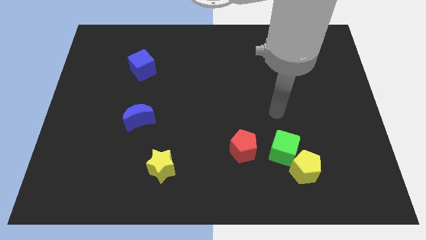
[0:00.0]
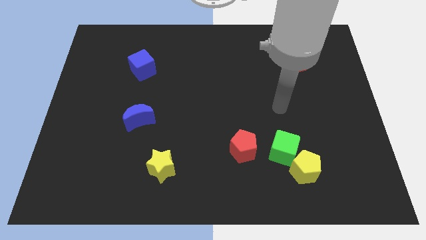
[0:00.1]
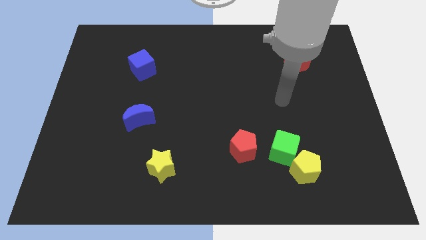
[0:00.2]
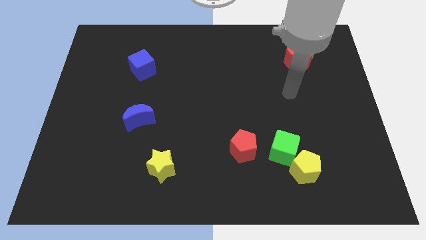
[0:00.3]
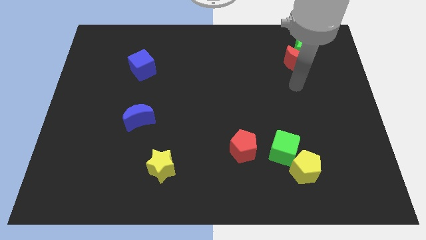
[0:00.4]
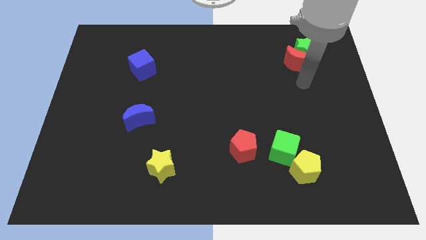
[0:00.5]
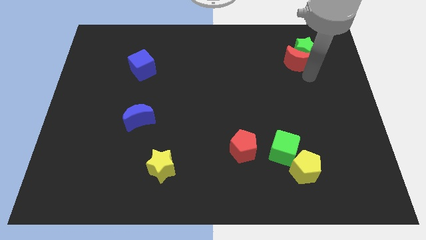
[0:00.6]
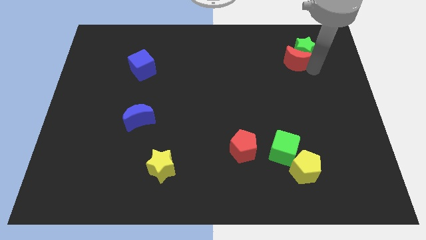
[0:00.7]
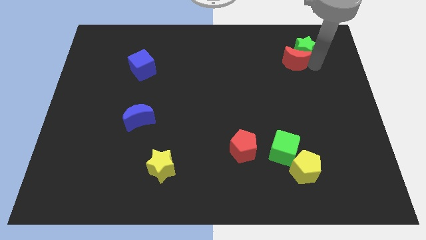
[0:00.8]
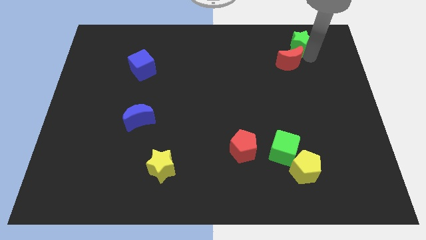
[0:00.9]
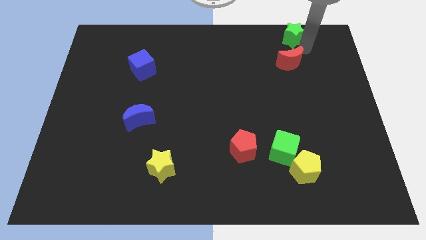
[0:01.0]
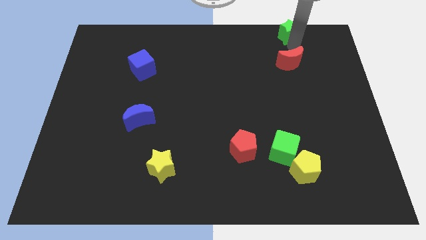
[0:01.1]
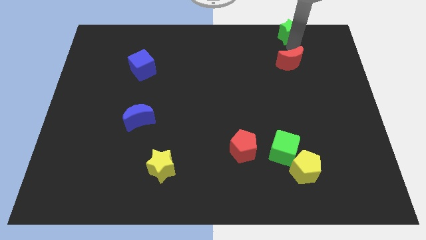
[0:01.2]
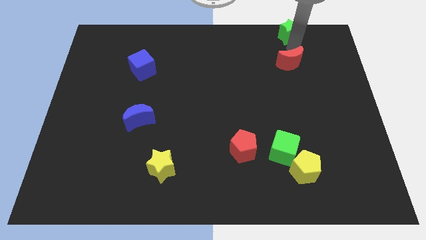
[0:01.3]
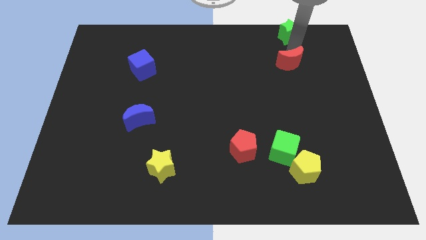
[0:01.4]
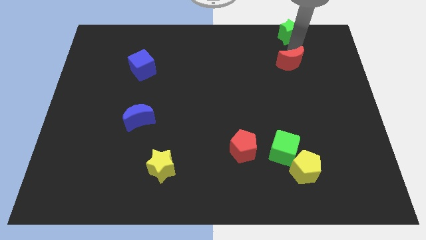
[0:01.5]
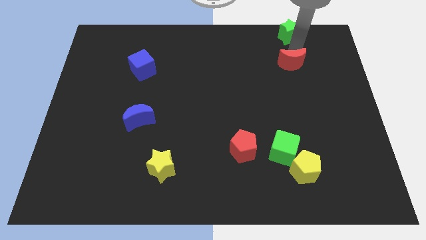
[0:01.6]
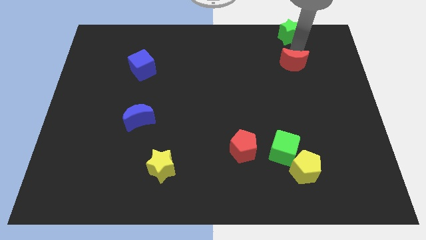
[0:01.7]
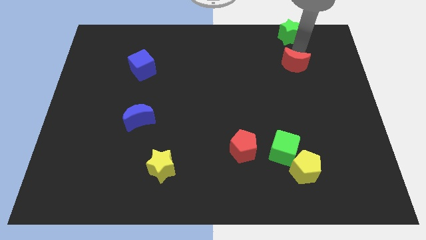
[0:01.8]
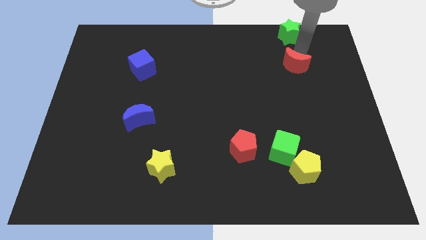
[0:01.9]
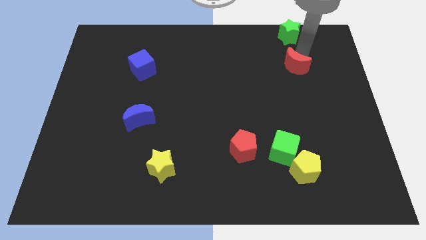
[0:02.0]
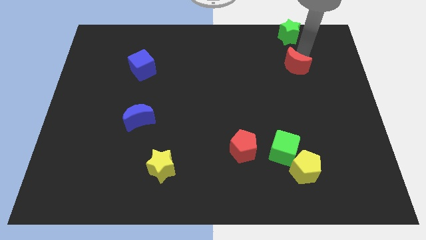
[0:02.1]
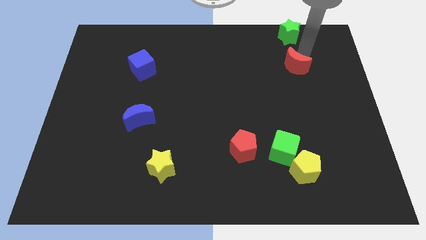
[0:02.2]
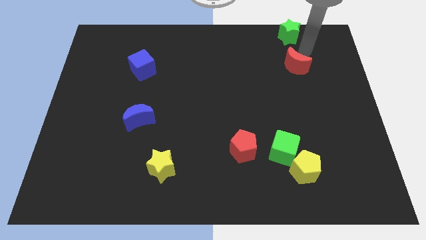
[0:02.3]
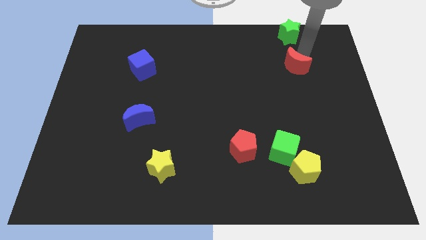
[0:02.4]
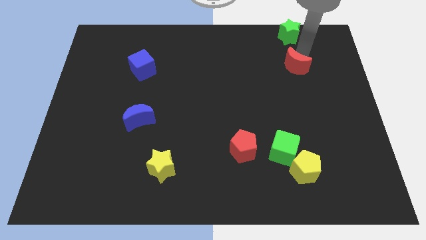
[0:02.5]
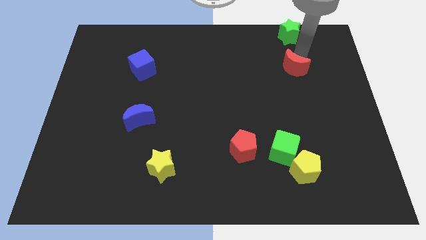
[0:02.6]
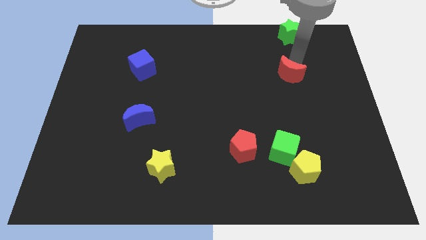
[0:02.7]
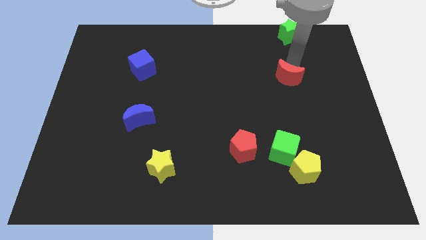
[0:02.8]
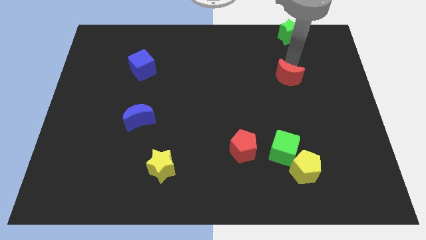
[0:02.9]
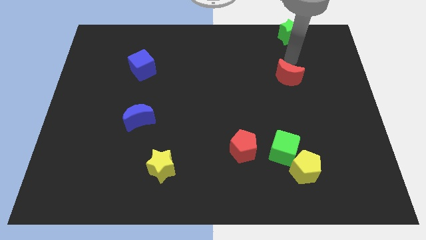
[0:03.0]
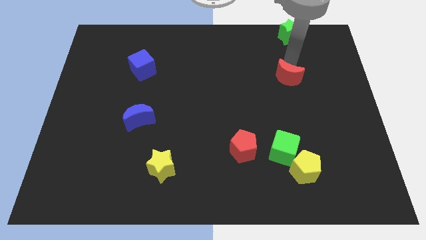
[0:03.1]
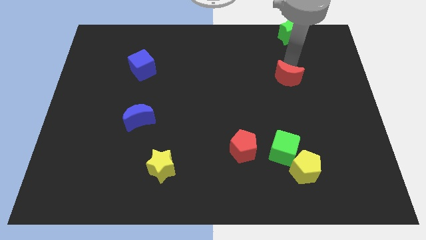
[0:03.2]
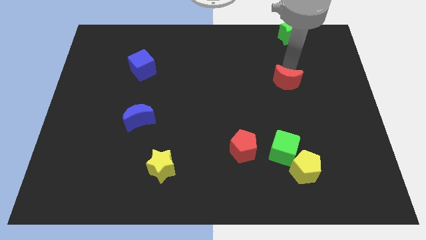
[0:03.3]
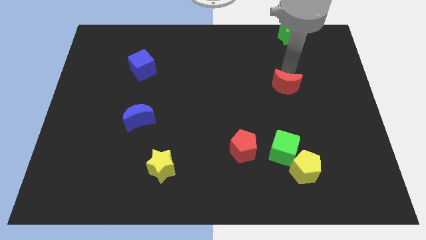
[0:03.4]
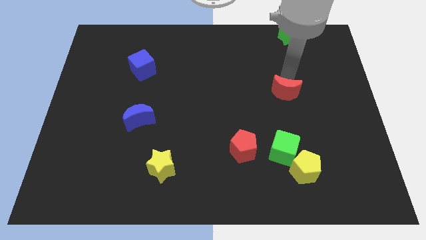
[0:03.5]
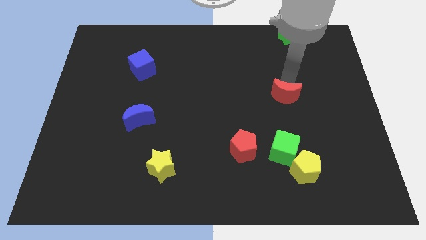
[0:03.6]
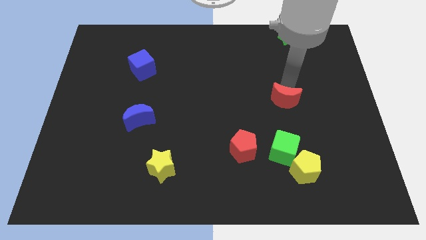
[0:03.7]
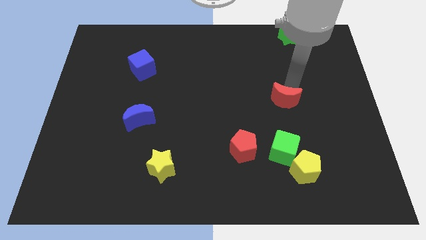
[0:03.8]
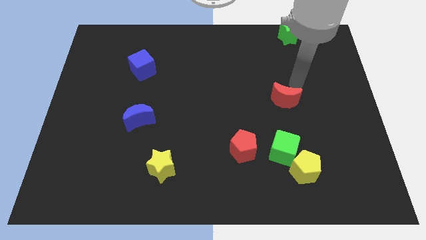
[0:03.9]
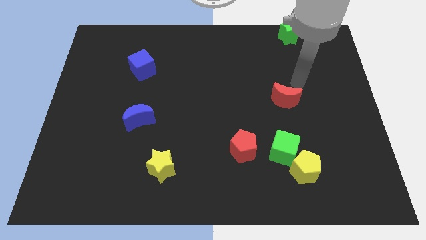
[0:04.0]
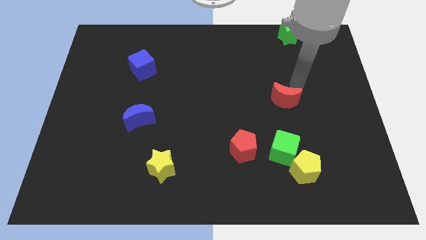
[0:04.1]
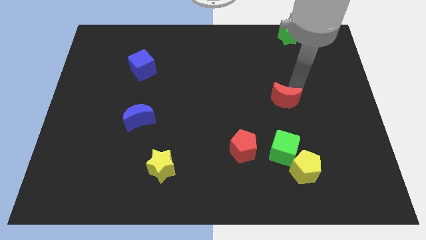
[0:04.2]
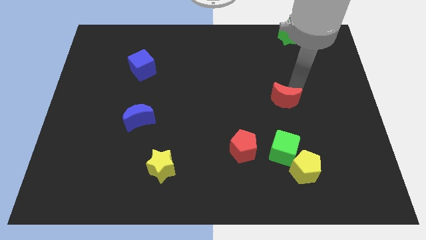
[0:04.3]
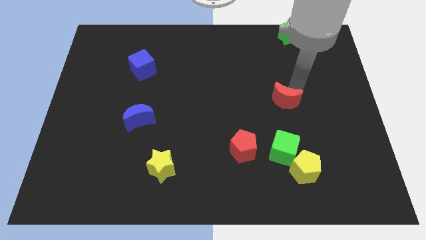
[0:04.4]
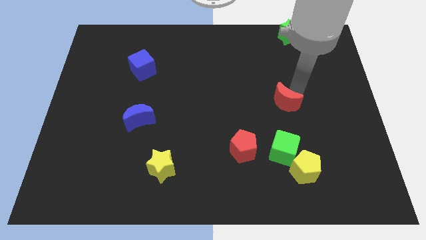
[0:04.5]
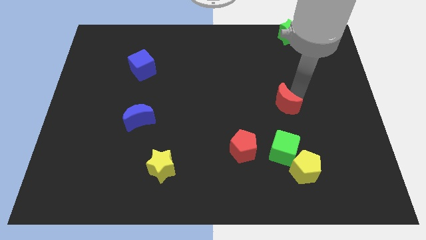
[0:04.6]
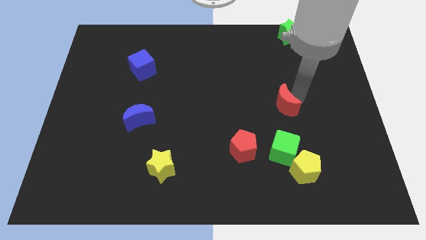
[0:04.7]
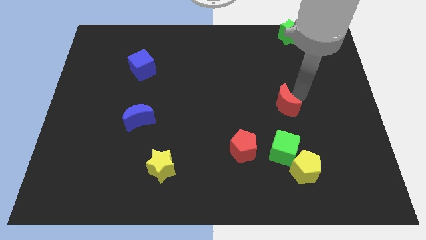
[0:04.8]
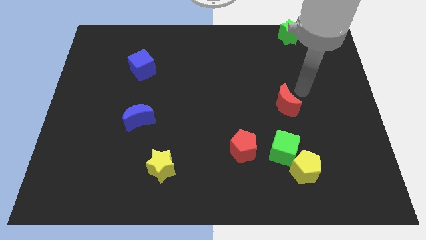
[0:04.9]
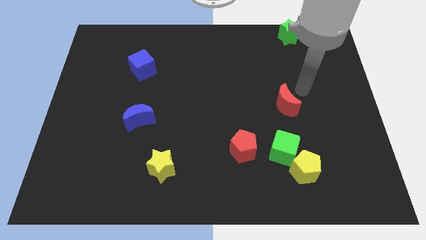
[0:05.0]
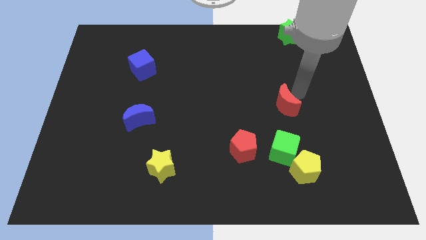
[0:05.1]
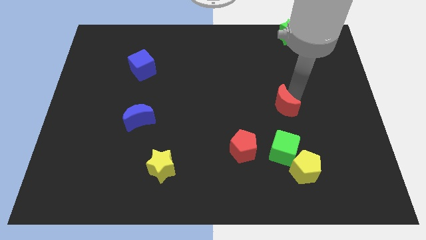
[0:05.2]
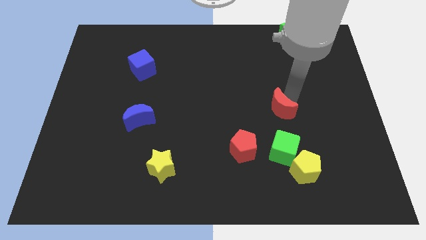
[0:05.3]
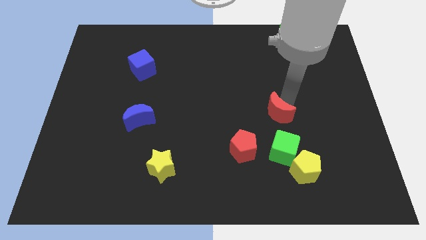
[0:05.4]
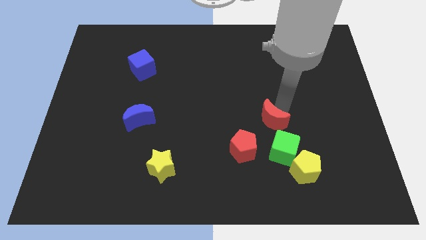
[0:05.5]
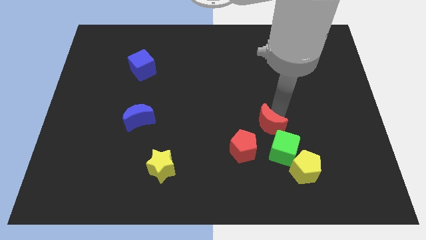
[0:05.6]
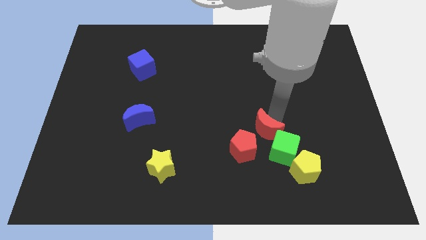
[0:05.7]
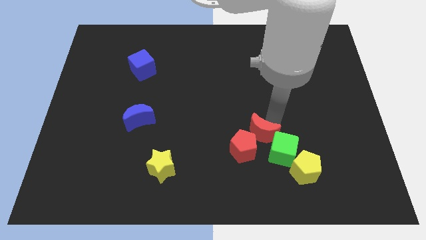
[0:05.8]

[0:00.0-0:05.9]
put the red moon close to the red pentagon

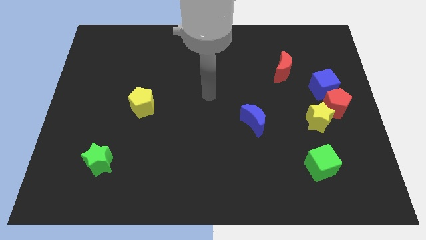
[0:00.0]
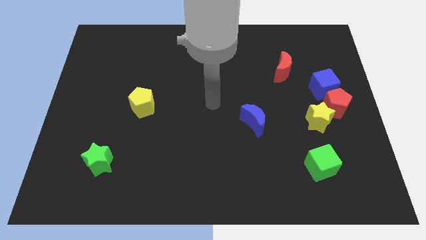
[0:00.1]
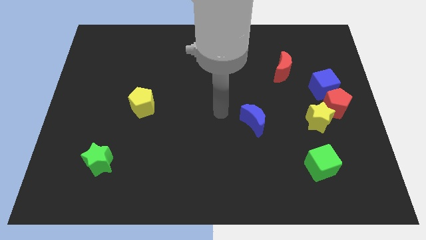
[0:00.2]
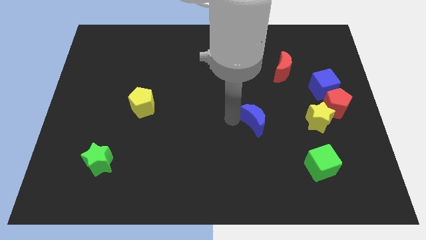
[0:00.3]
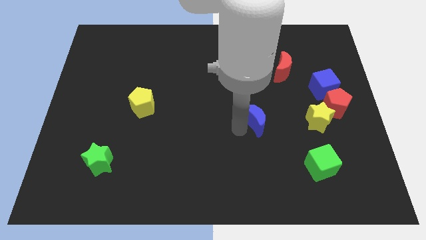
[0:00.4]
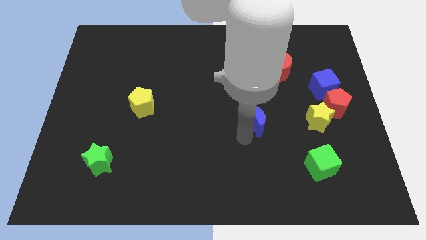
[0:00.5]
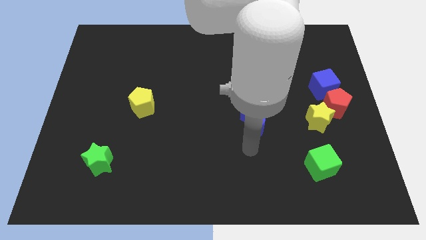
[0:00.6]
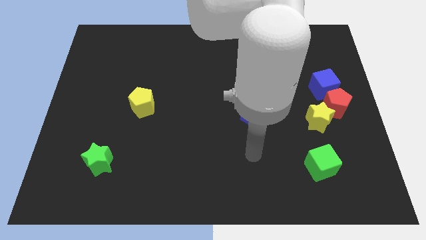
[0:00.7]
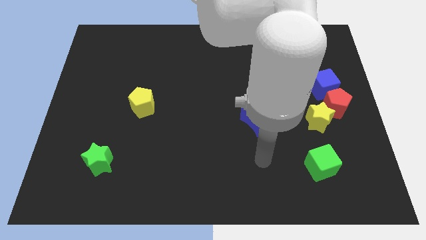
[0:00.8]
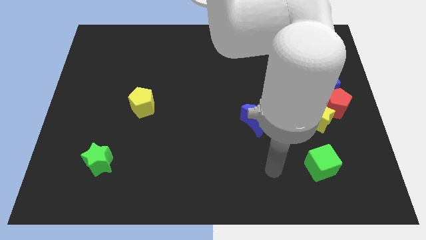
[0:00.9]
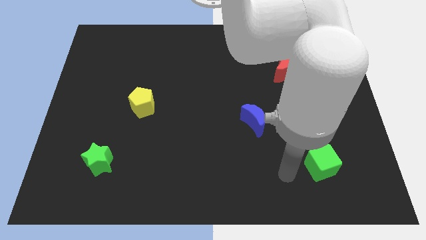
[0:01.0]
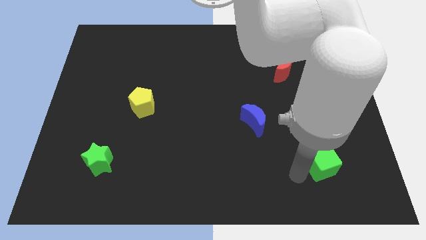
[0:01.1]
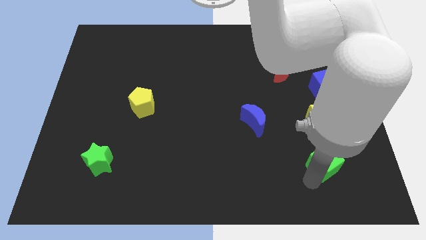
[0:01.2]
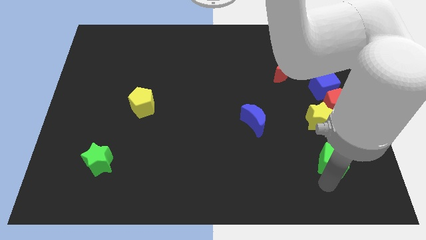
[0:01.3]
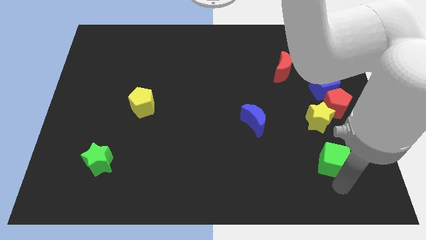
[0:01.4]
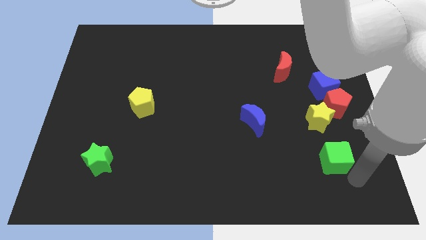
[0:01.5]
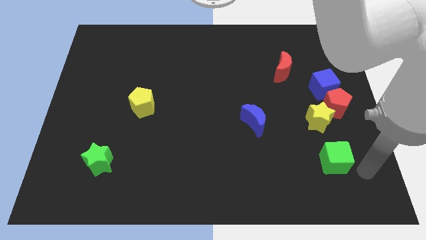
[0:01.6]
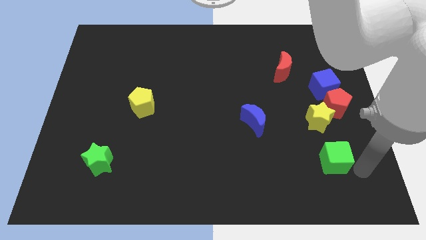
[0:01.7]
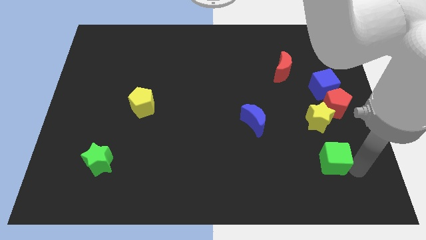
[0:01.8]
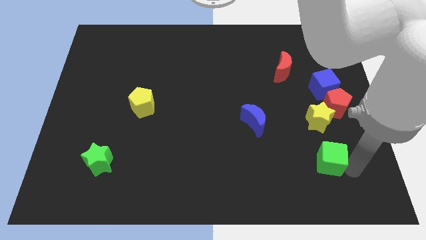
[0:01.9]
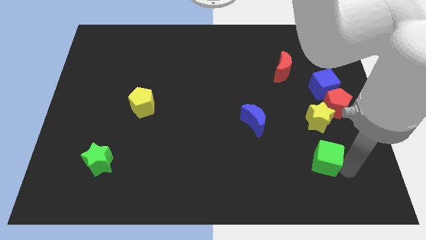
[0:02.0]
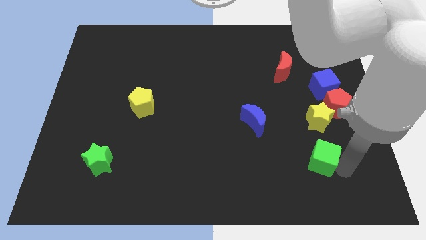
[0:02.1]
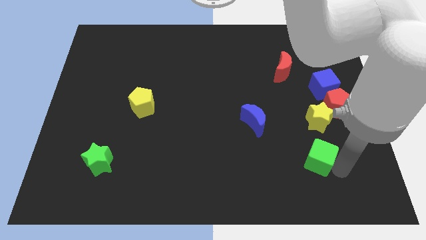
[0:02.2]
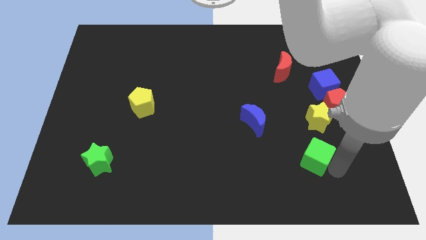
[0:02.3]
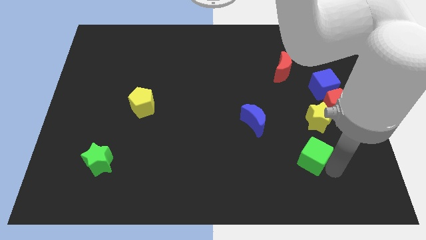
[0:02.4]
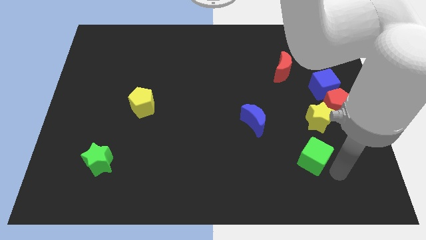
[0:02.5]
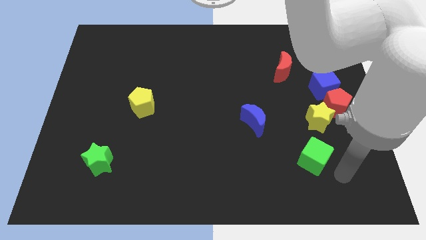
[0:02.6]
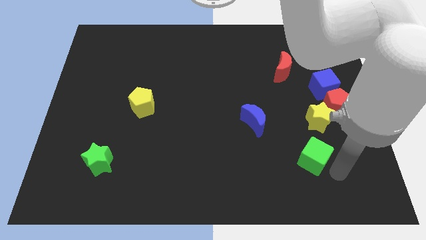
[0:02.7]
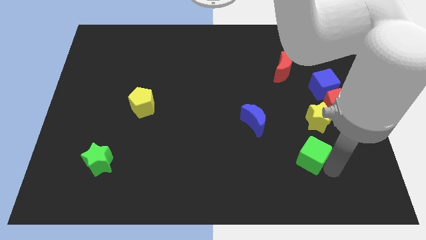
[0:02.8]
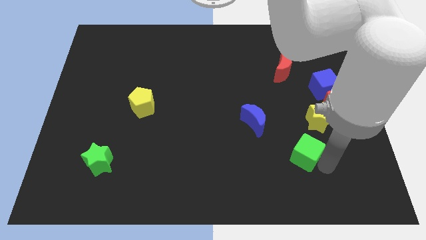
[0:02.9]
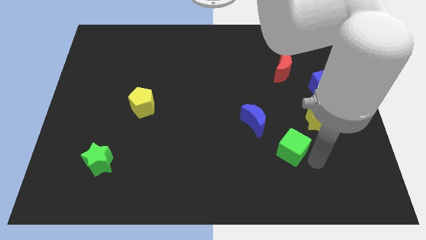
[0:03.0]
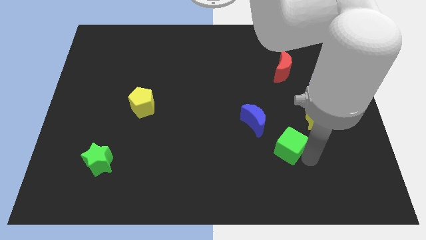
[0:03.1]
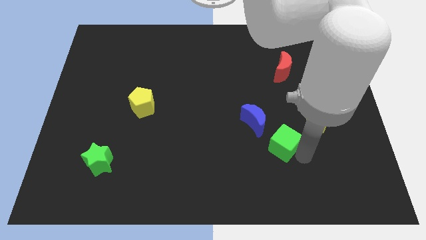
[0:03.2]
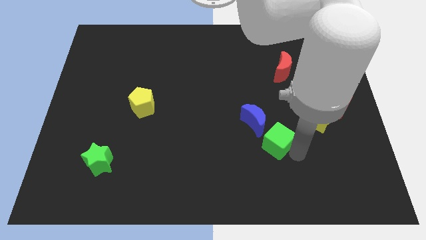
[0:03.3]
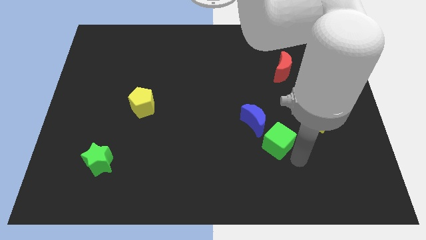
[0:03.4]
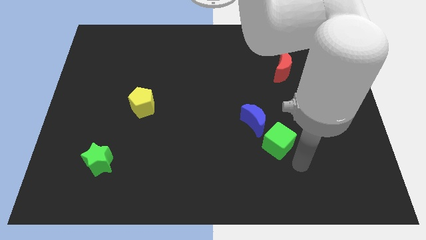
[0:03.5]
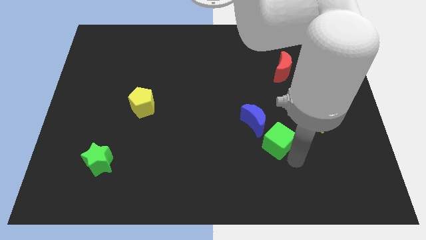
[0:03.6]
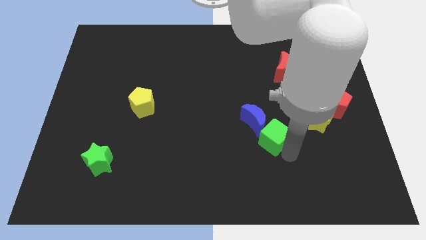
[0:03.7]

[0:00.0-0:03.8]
put the green cube towards the blue moon
